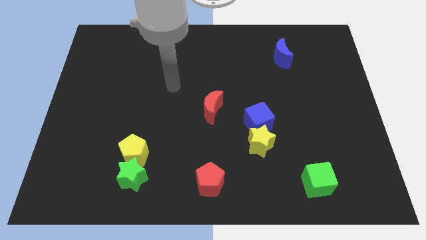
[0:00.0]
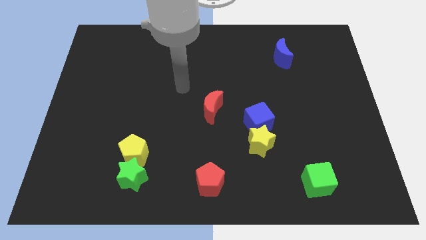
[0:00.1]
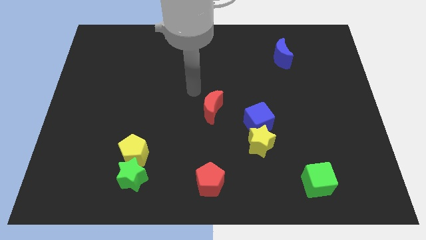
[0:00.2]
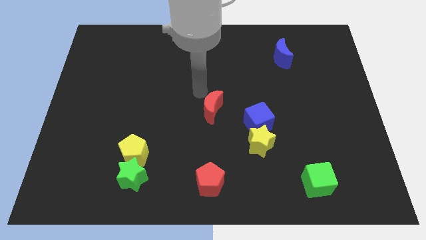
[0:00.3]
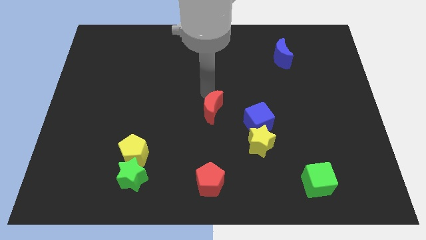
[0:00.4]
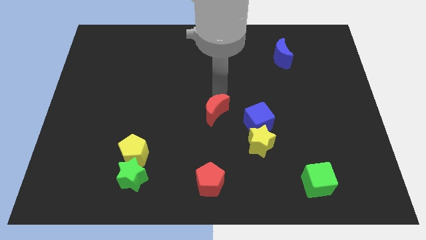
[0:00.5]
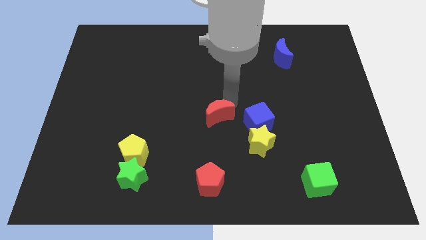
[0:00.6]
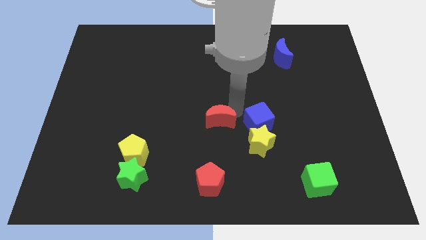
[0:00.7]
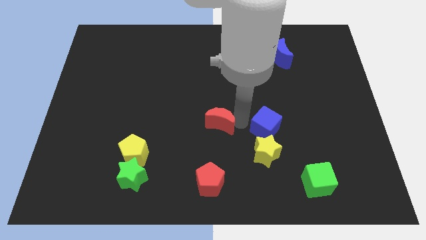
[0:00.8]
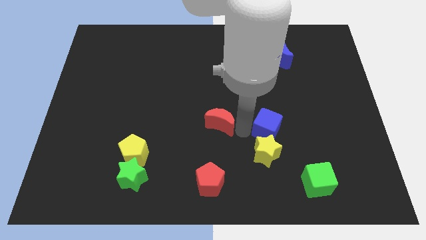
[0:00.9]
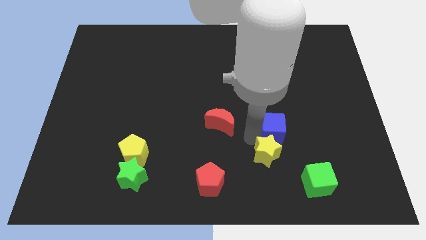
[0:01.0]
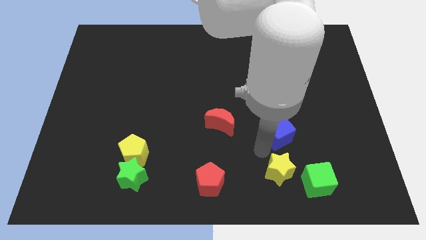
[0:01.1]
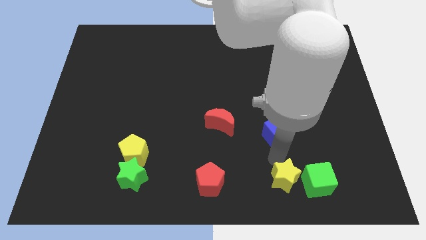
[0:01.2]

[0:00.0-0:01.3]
move the blue cube away from the yellow star

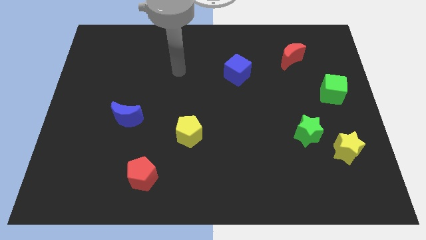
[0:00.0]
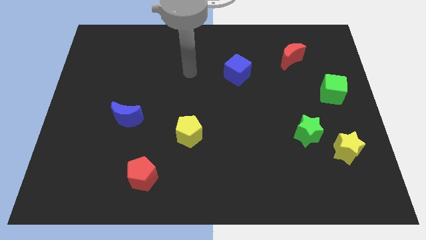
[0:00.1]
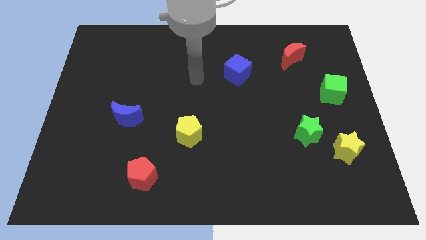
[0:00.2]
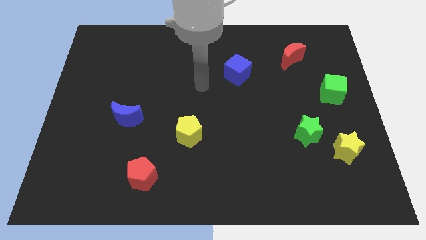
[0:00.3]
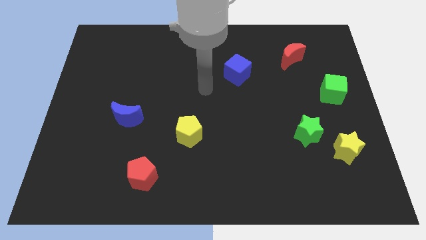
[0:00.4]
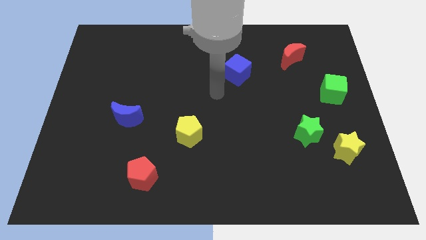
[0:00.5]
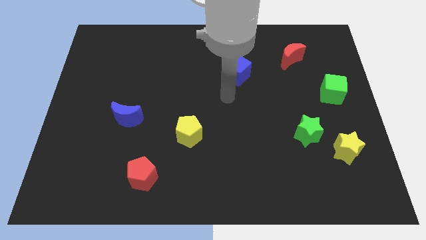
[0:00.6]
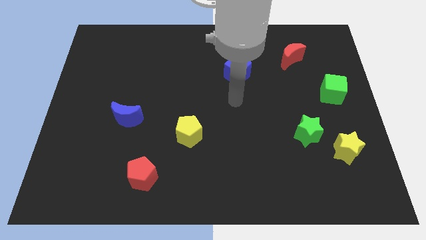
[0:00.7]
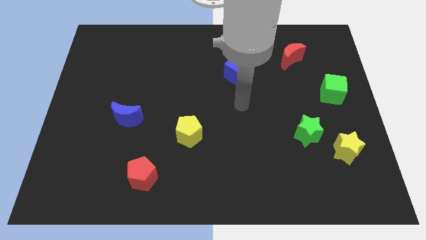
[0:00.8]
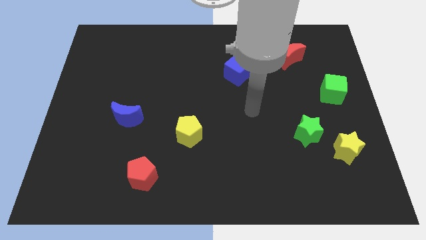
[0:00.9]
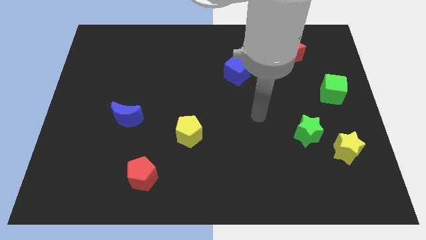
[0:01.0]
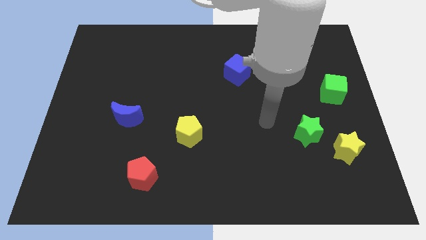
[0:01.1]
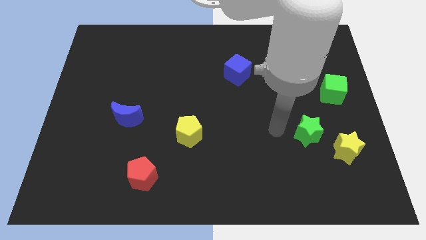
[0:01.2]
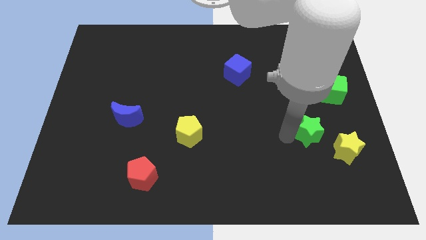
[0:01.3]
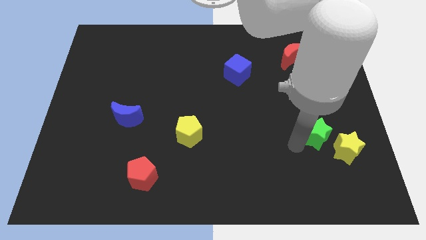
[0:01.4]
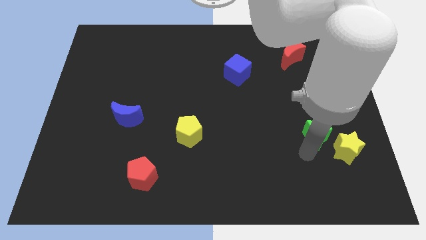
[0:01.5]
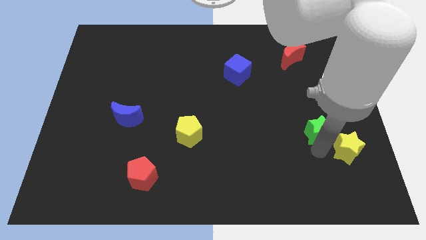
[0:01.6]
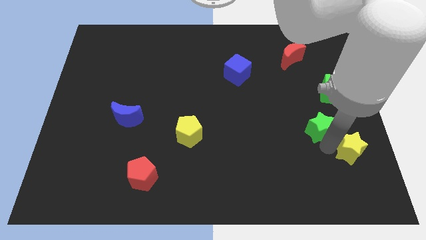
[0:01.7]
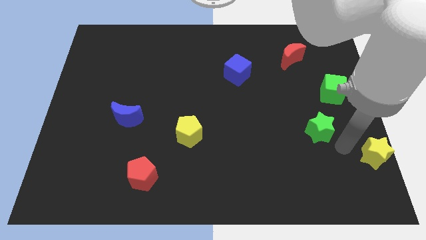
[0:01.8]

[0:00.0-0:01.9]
move the green star away from the yellow star

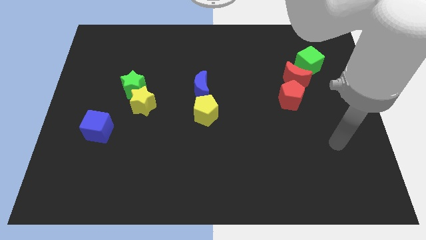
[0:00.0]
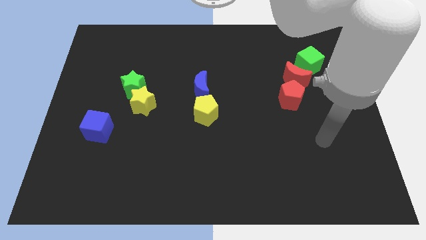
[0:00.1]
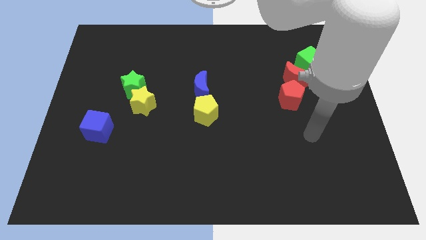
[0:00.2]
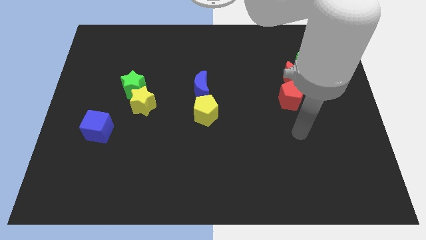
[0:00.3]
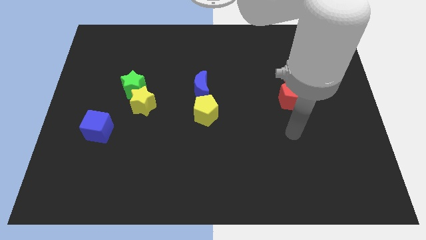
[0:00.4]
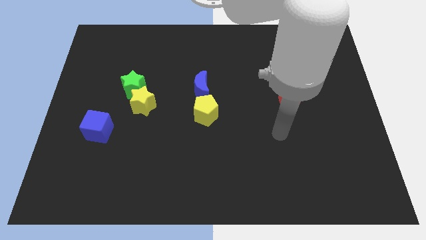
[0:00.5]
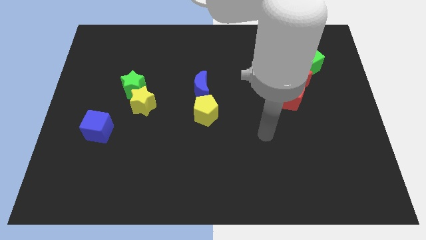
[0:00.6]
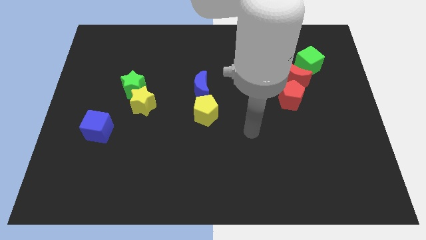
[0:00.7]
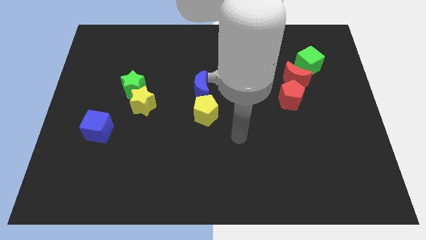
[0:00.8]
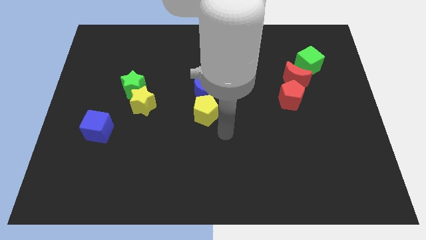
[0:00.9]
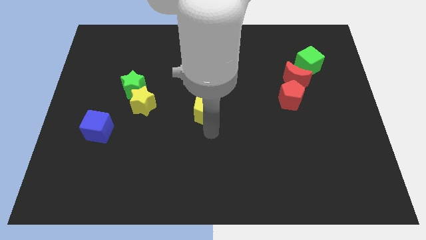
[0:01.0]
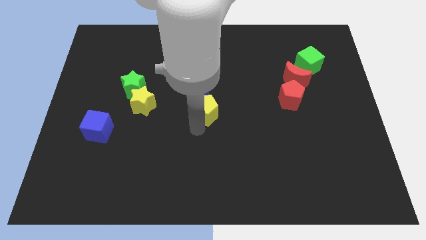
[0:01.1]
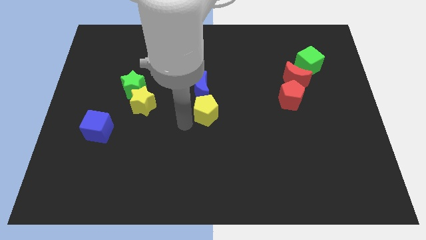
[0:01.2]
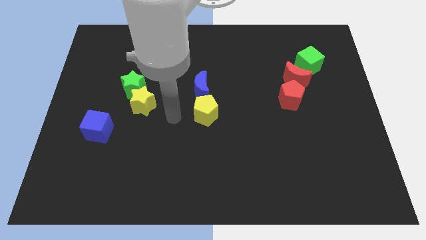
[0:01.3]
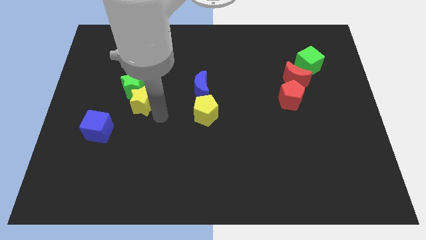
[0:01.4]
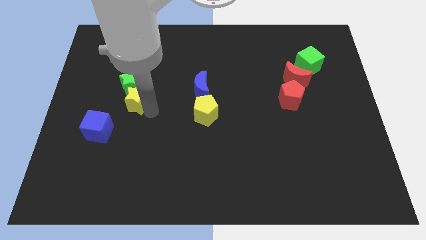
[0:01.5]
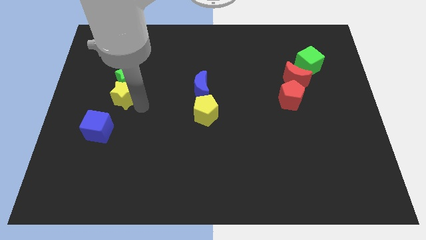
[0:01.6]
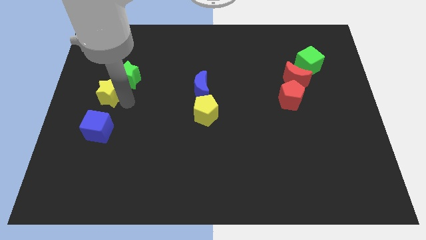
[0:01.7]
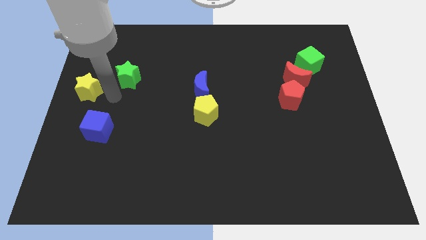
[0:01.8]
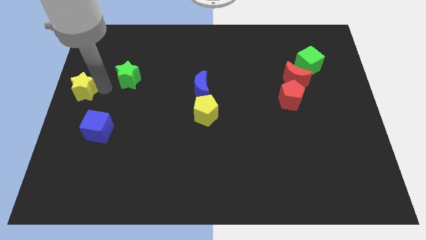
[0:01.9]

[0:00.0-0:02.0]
separate the green star from the yellow star

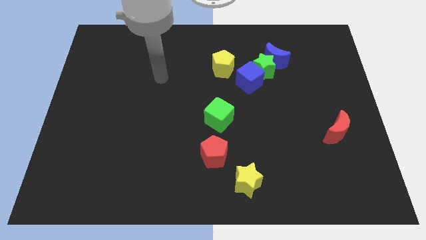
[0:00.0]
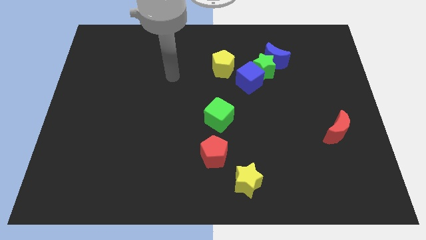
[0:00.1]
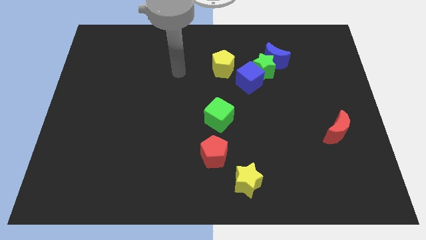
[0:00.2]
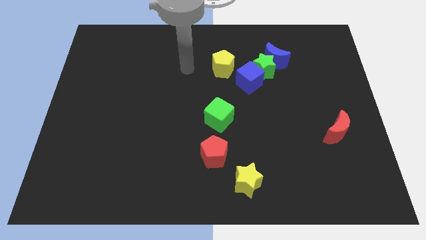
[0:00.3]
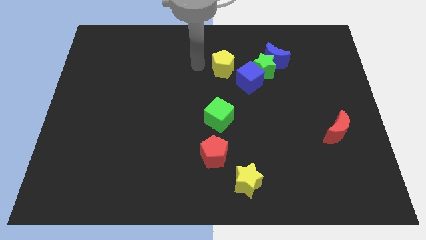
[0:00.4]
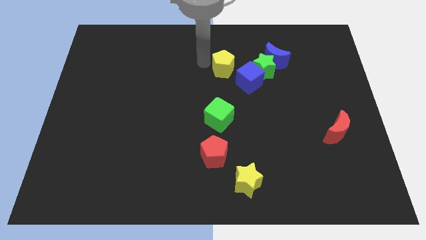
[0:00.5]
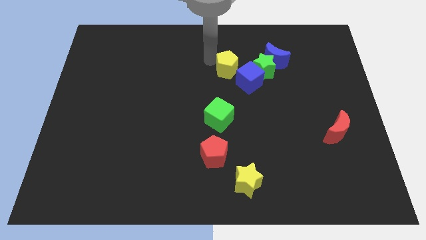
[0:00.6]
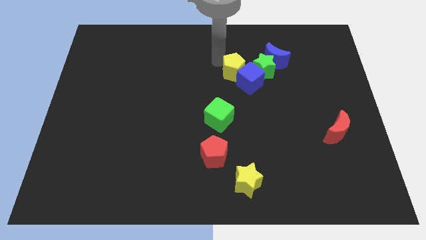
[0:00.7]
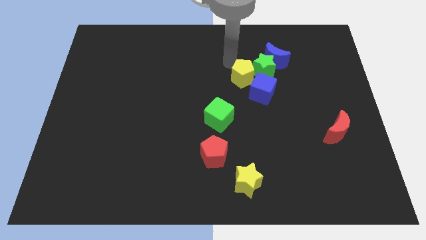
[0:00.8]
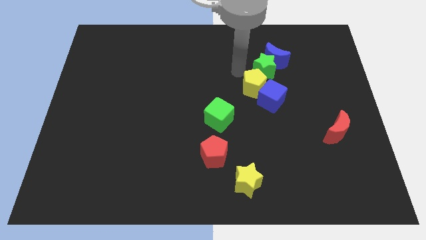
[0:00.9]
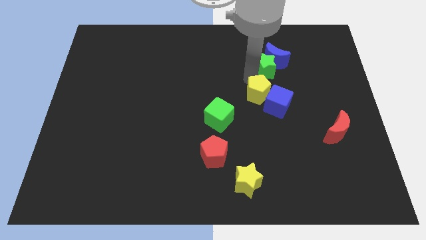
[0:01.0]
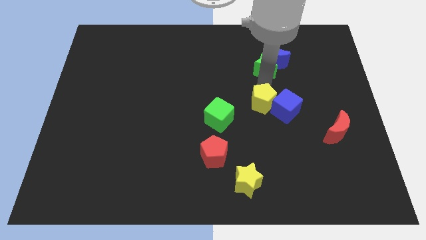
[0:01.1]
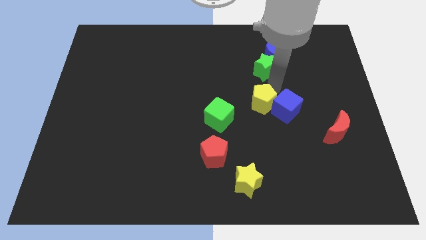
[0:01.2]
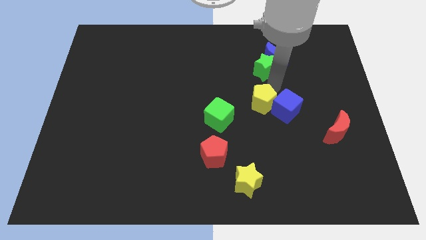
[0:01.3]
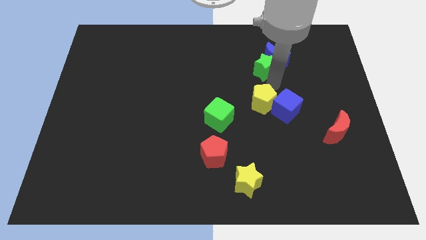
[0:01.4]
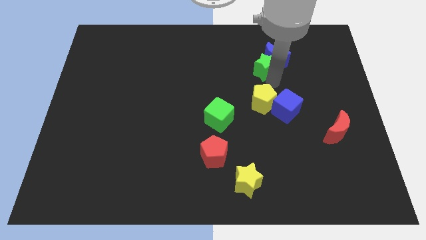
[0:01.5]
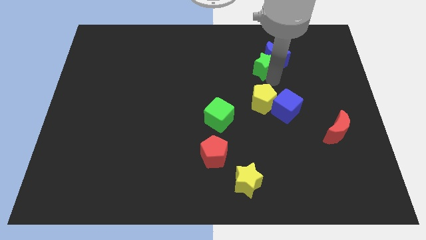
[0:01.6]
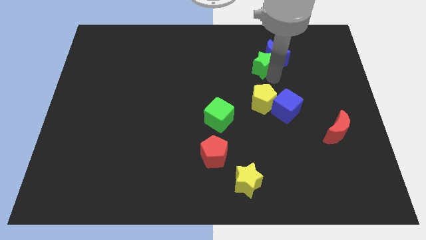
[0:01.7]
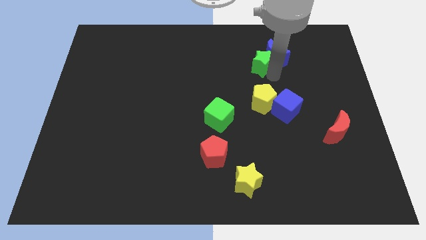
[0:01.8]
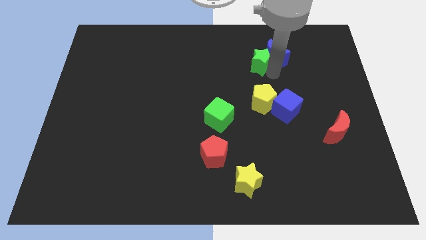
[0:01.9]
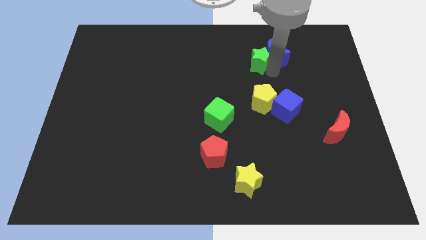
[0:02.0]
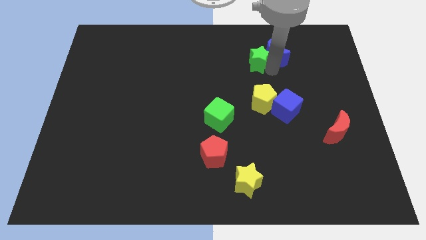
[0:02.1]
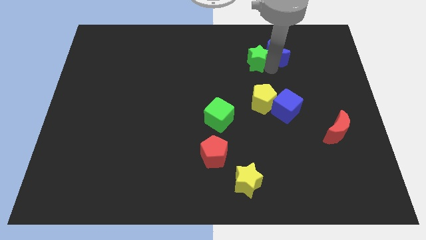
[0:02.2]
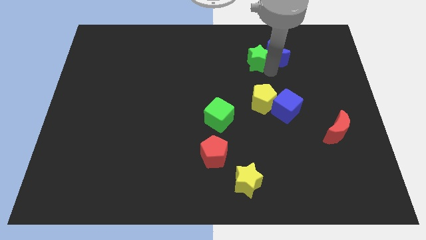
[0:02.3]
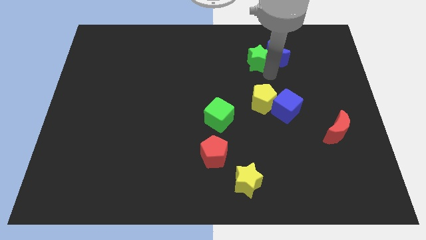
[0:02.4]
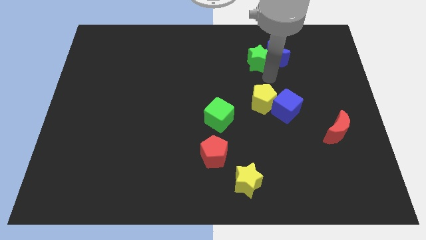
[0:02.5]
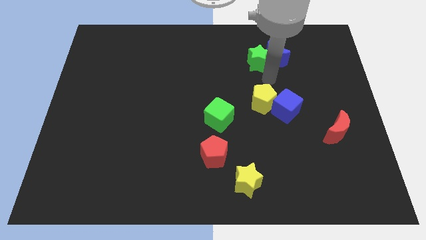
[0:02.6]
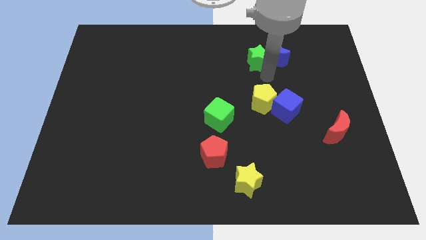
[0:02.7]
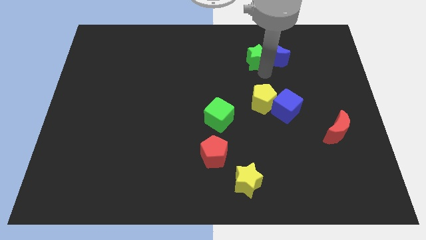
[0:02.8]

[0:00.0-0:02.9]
pull the green star apart from the blue moon, blue cube, and yellow pentagon

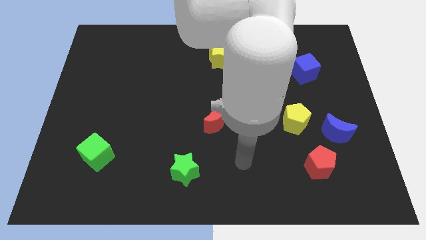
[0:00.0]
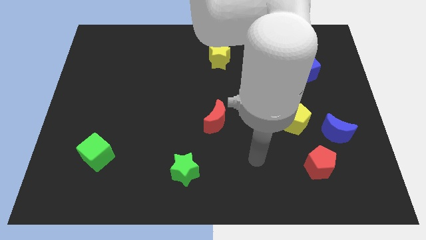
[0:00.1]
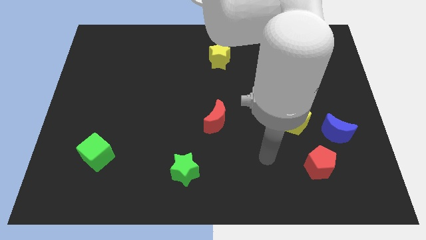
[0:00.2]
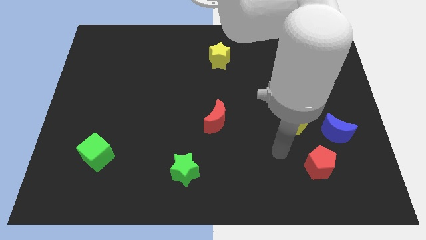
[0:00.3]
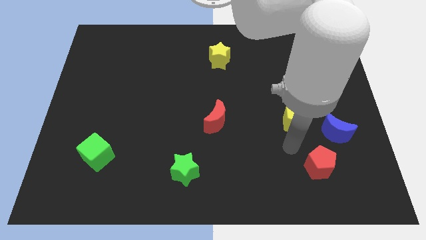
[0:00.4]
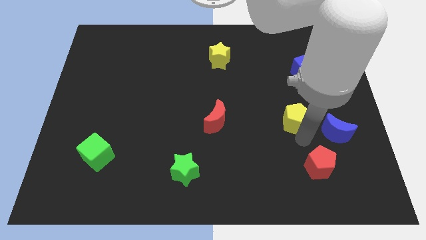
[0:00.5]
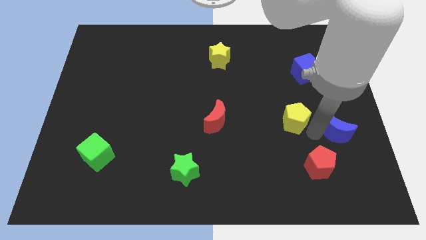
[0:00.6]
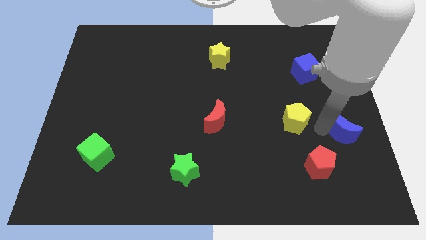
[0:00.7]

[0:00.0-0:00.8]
separate the yellow pentagon from the blue moon

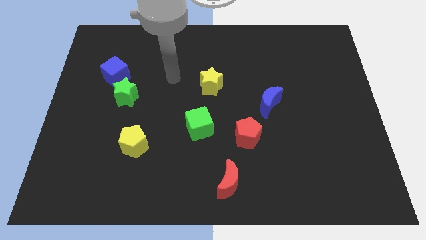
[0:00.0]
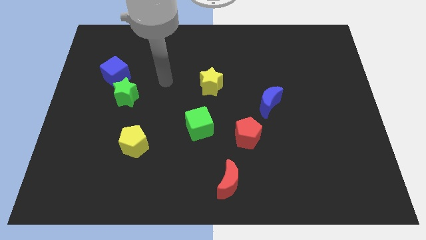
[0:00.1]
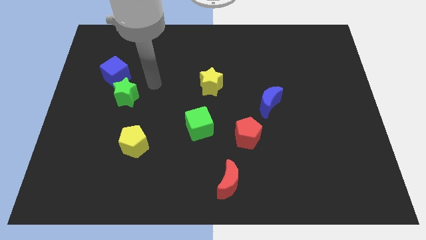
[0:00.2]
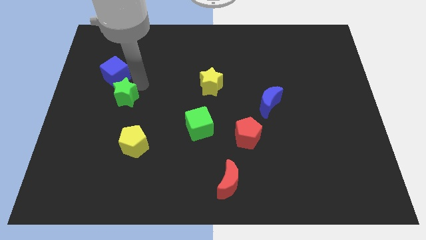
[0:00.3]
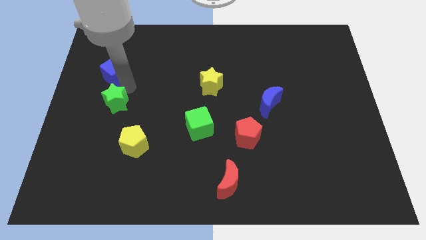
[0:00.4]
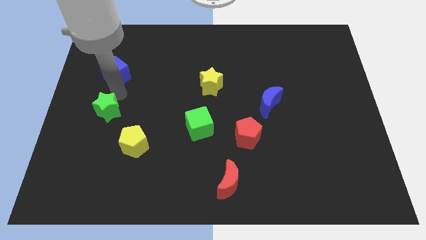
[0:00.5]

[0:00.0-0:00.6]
pull the blue cube apart from the green star

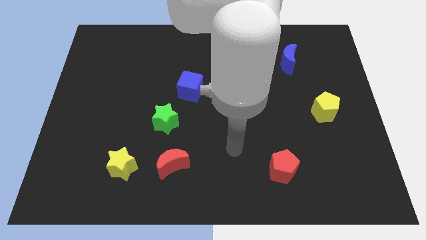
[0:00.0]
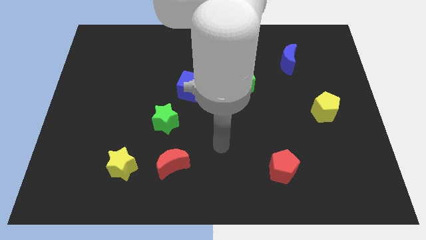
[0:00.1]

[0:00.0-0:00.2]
move the red moon away from the yellow star
